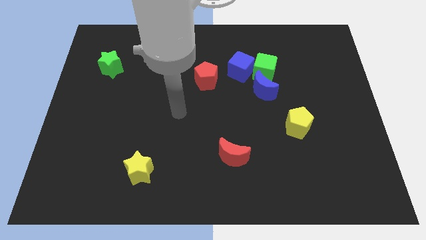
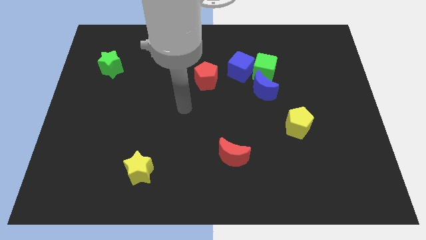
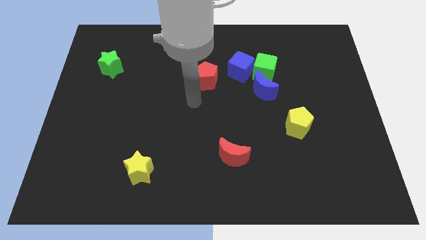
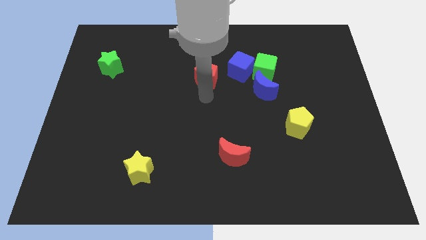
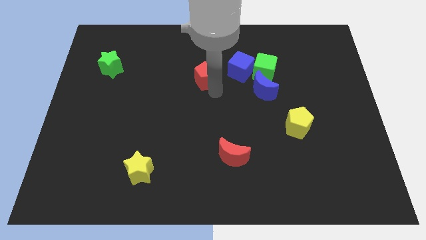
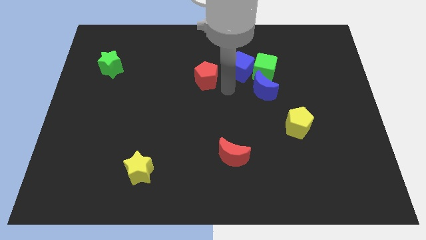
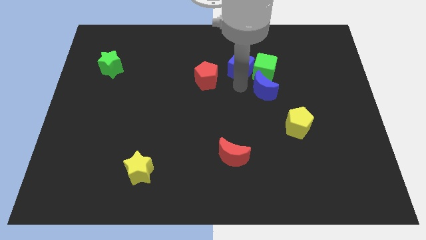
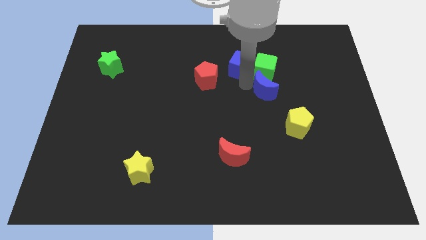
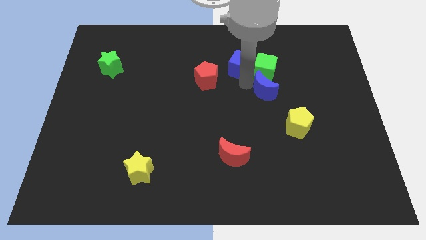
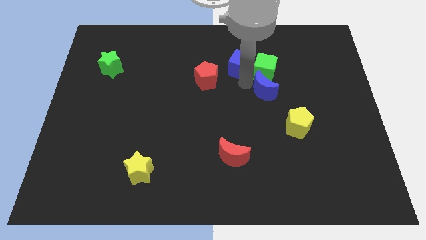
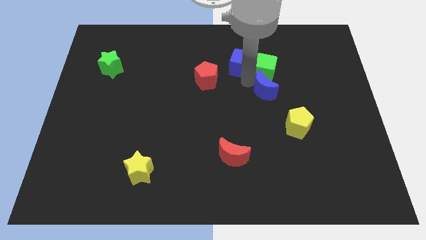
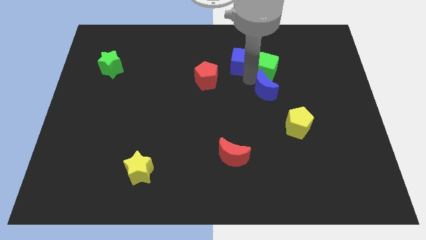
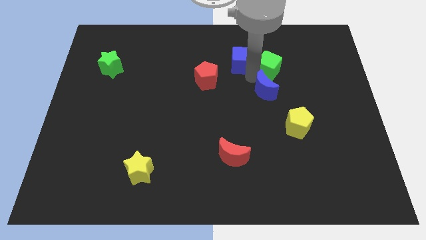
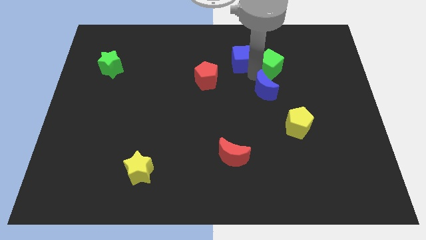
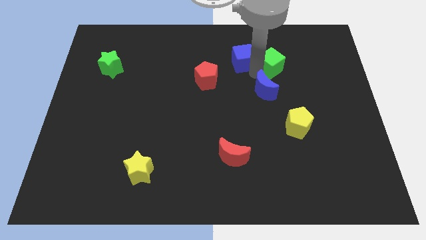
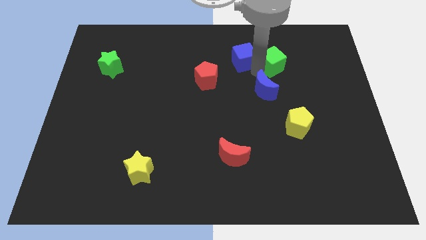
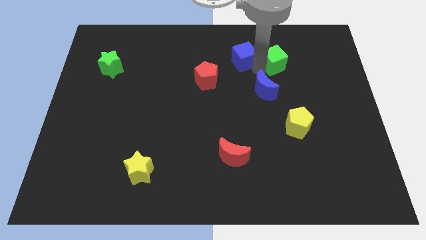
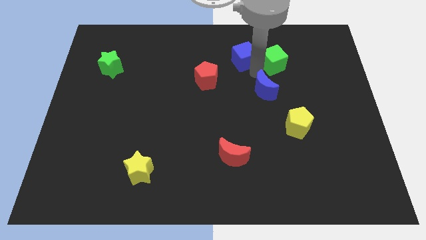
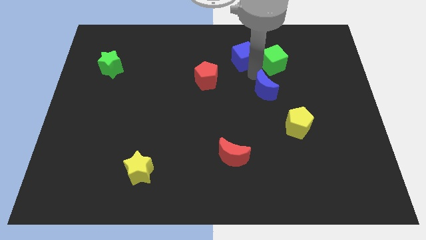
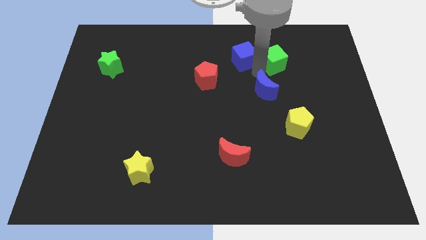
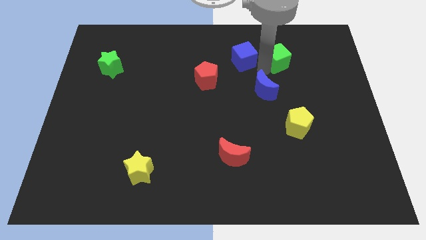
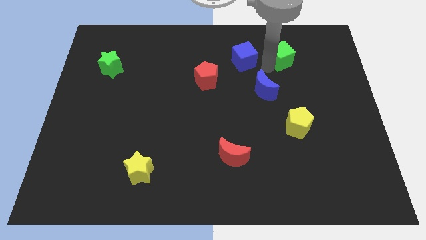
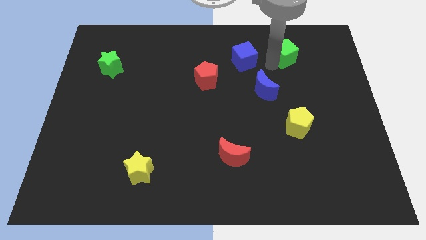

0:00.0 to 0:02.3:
move the green cube away from the blue cube and blue moon

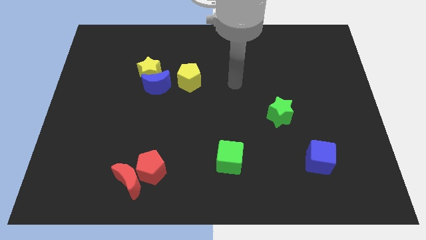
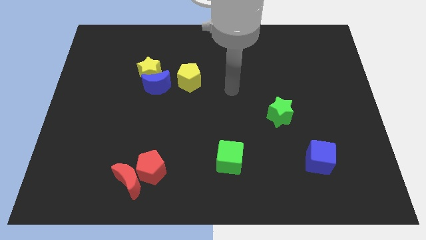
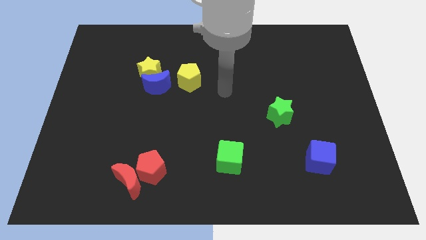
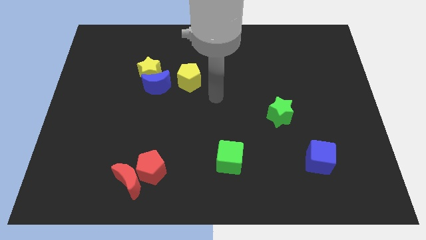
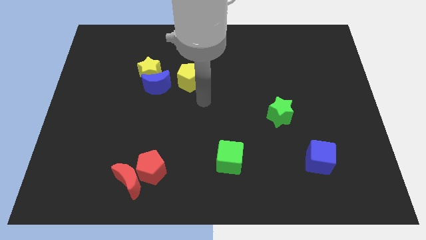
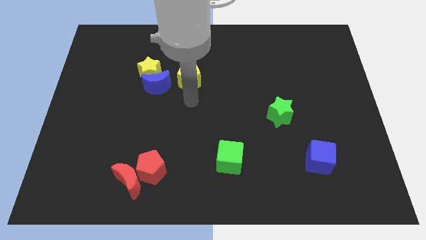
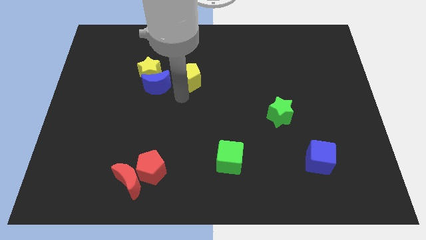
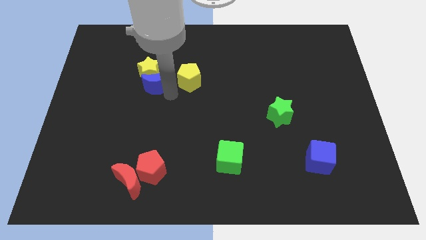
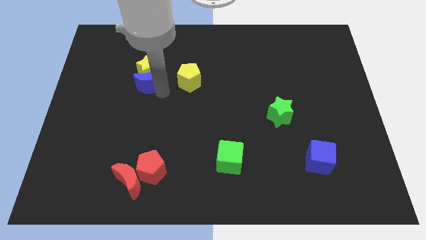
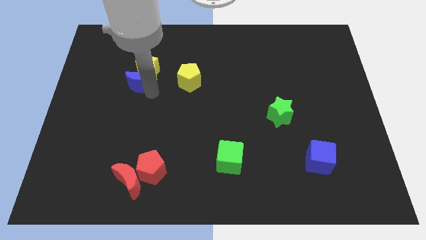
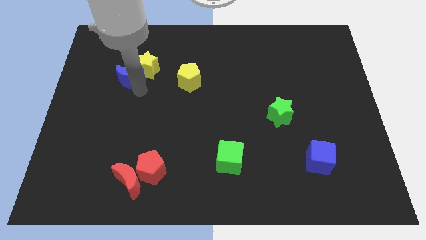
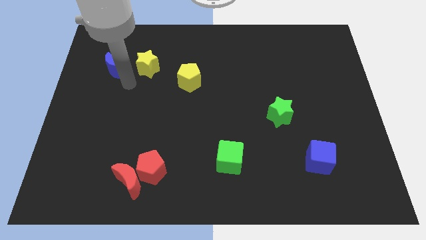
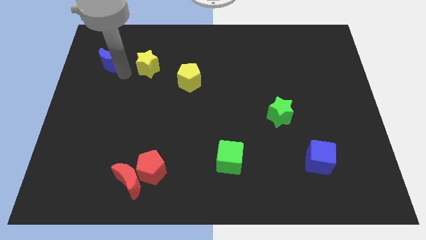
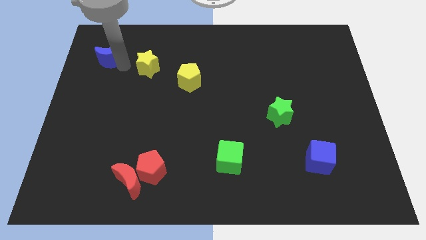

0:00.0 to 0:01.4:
move the yellow star away from the blue moon

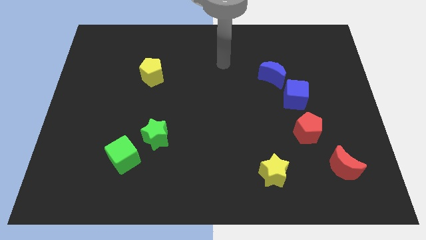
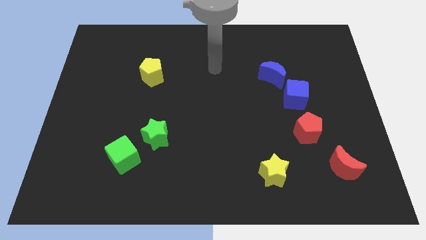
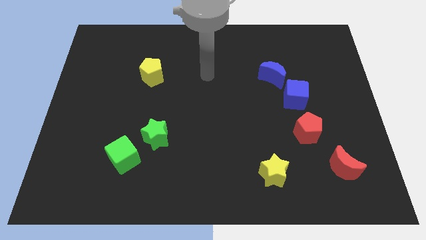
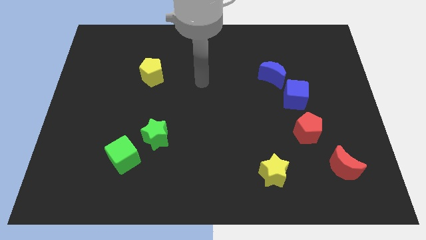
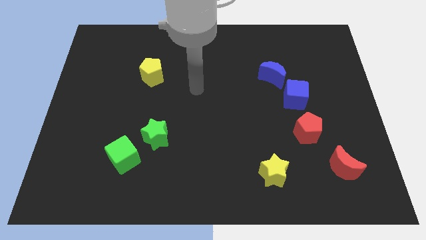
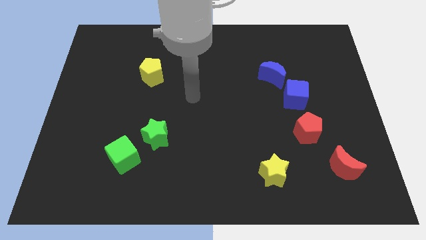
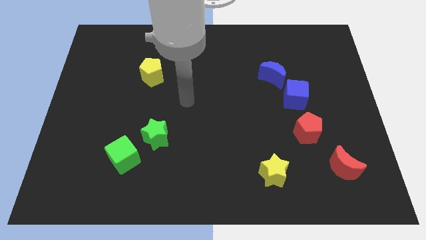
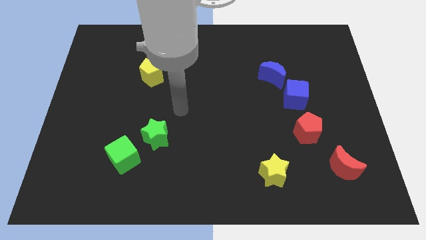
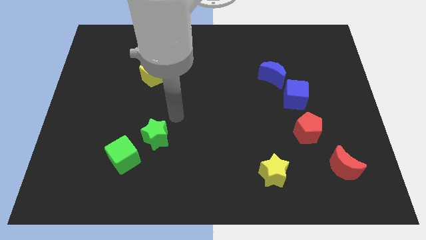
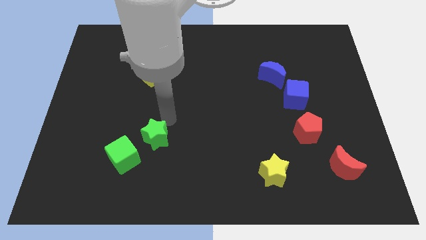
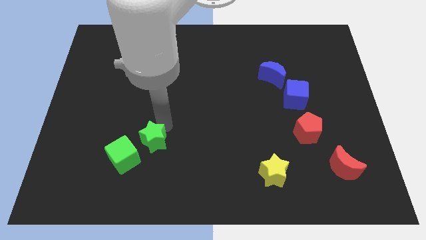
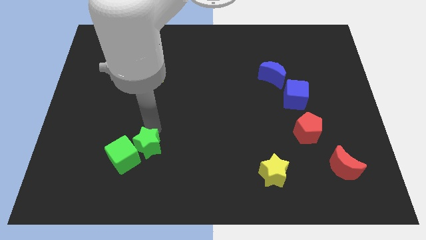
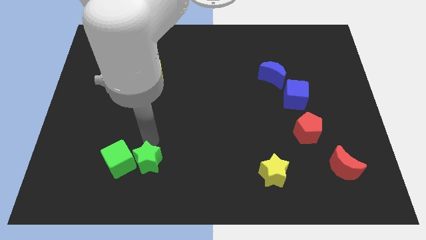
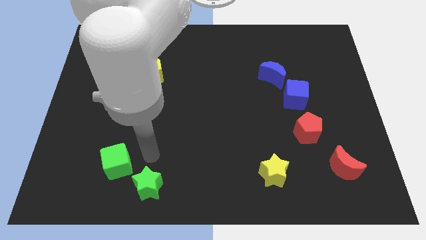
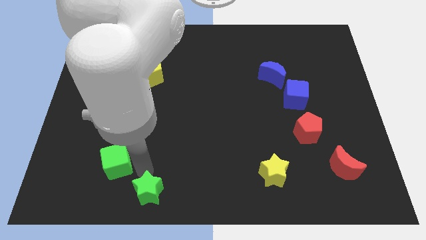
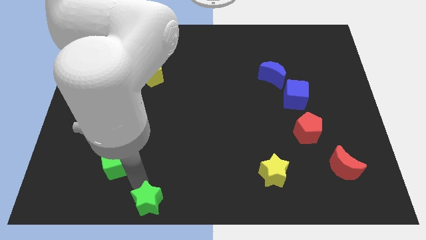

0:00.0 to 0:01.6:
separate the green cube from the green star

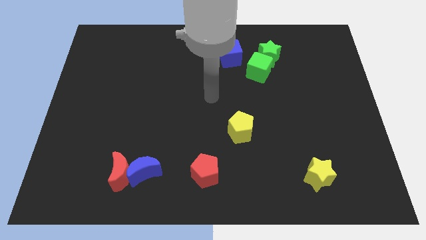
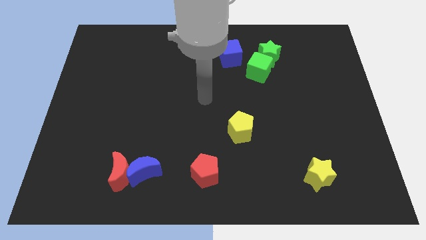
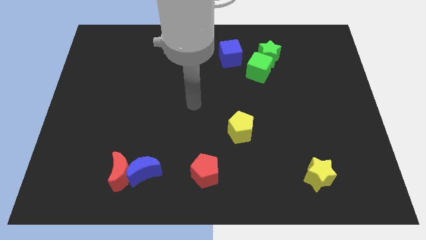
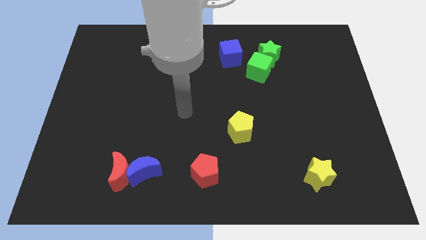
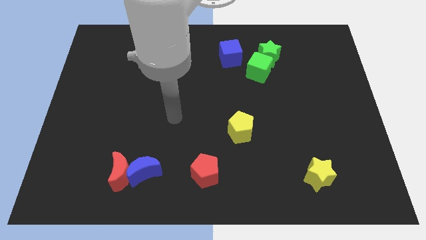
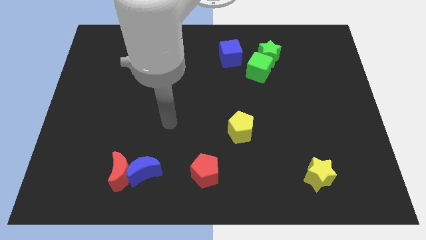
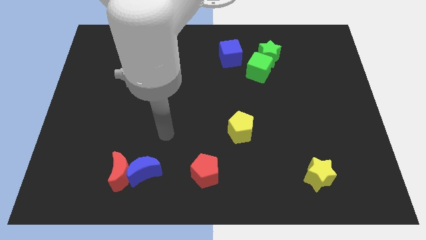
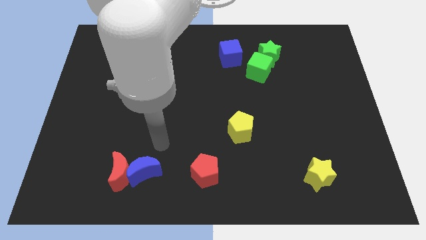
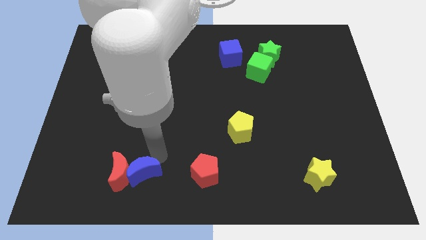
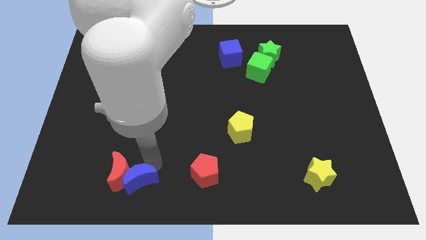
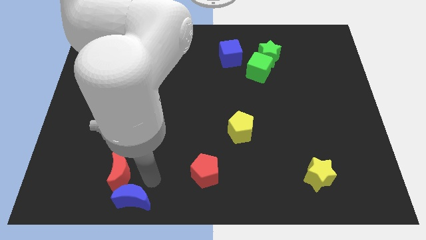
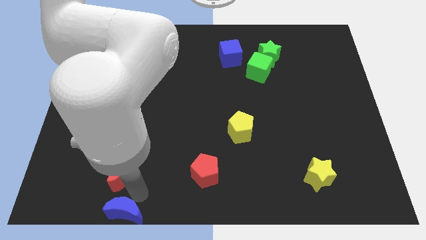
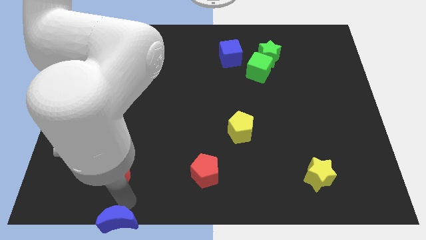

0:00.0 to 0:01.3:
separate the red moon from the blue moon

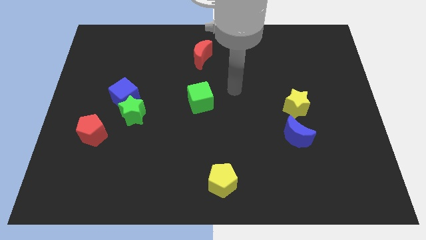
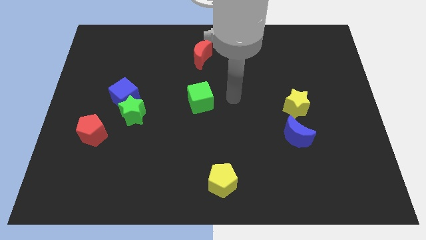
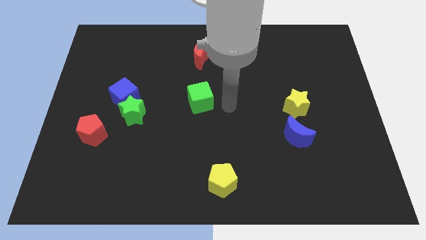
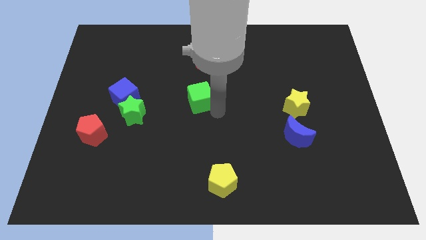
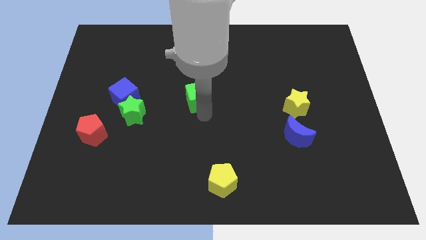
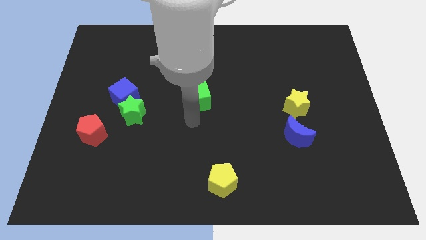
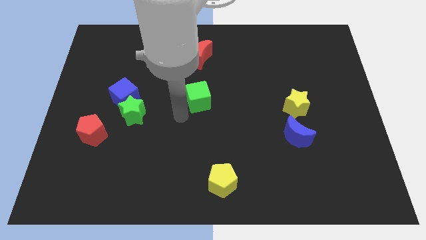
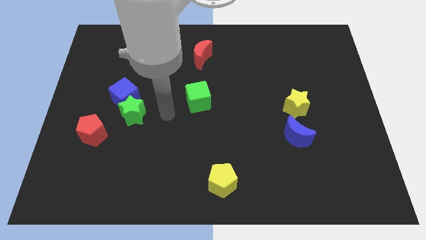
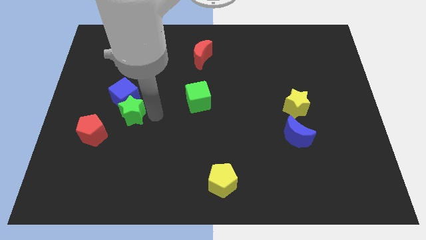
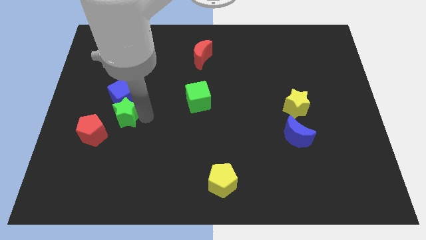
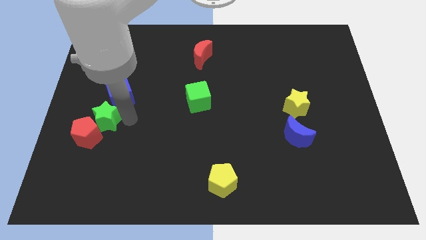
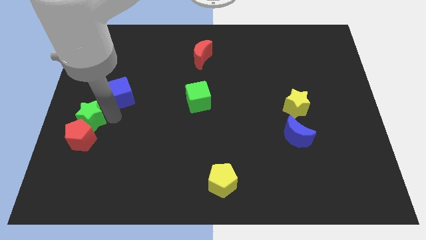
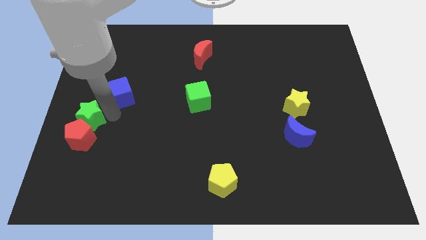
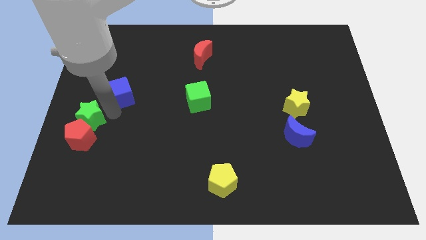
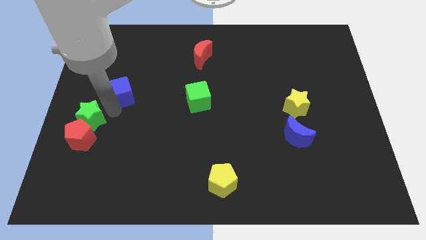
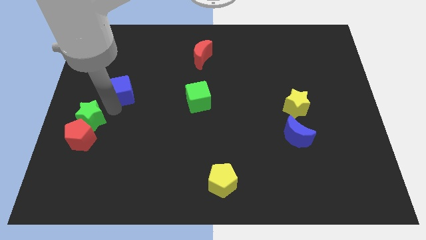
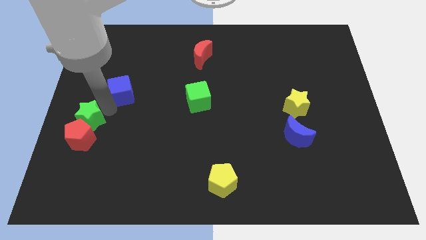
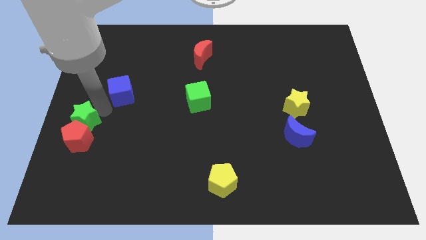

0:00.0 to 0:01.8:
move the blue cube away from the green star

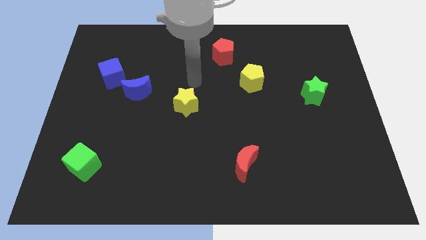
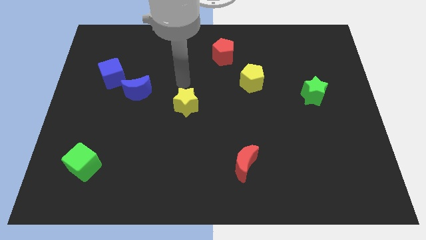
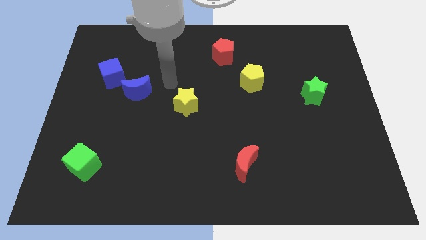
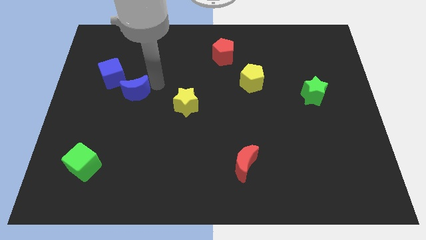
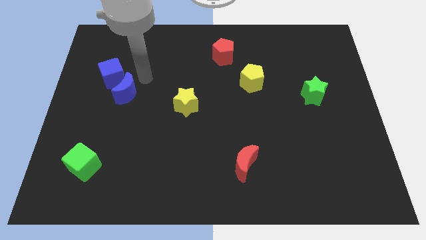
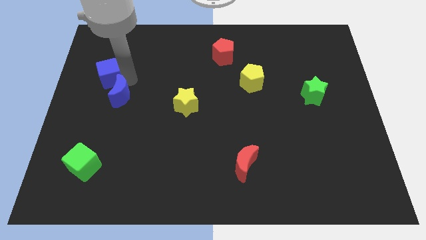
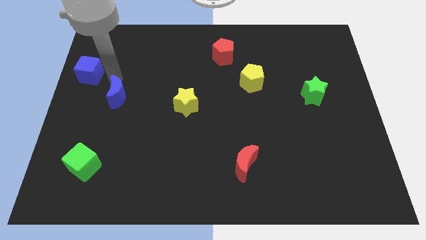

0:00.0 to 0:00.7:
separate the blue moon from the blue cube

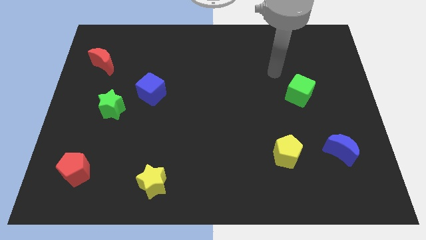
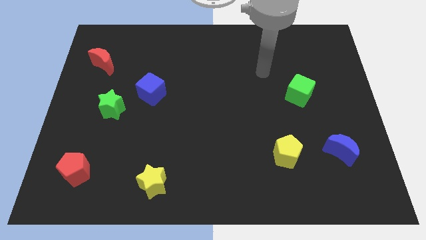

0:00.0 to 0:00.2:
pull the blue cube apart from the green star
